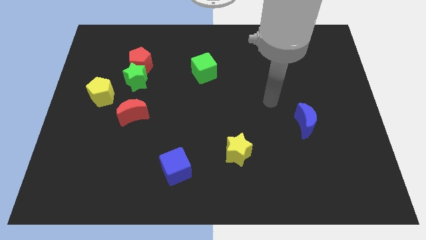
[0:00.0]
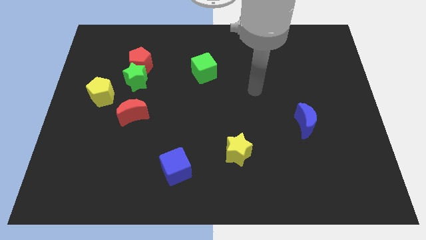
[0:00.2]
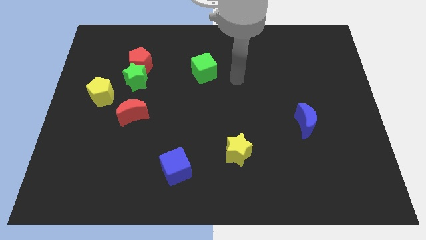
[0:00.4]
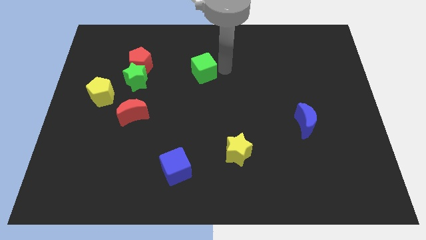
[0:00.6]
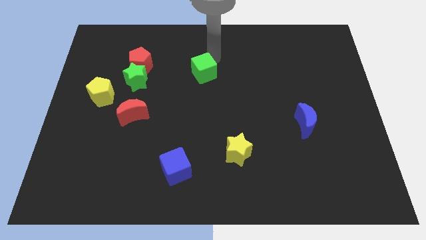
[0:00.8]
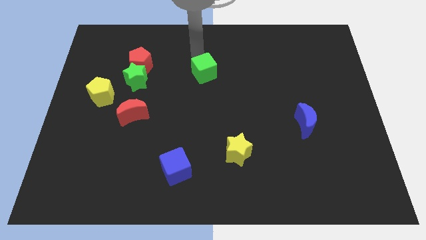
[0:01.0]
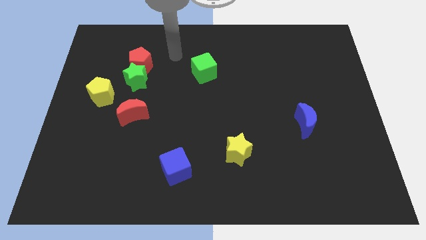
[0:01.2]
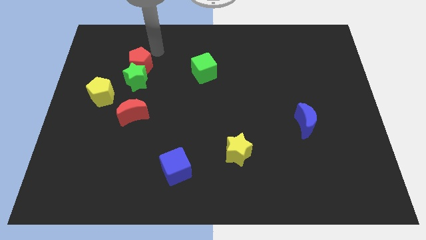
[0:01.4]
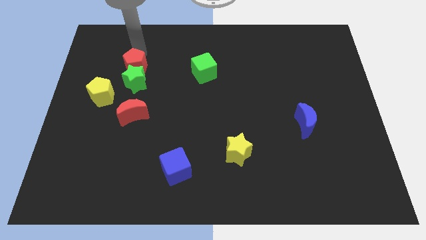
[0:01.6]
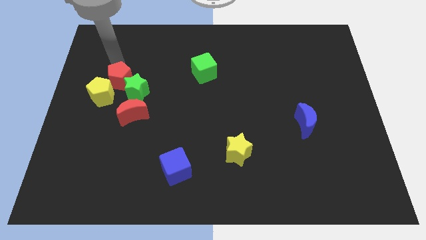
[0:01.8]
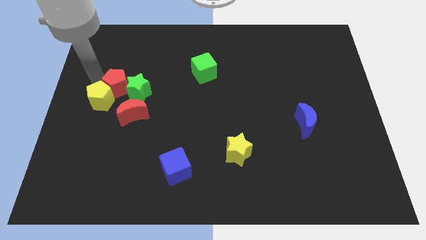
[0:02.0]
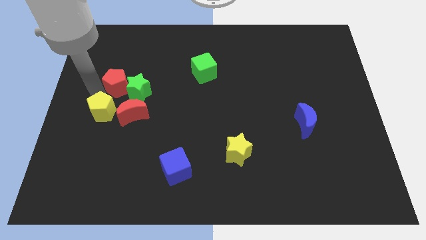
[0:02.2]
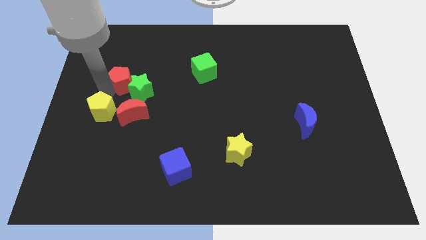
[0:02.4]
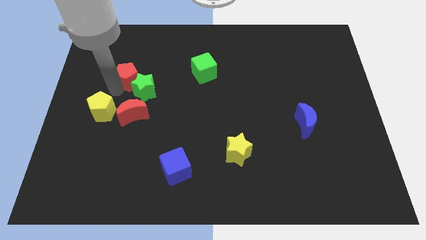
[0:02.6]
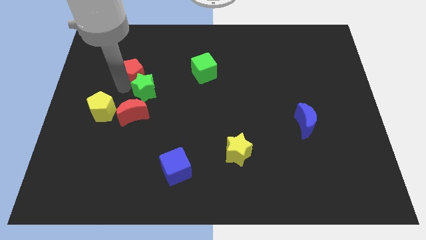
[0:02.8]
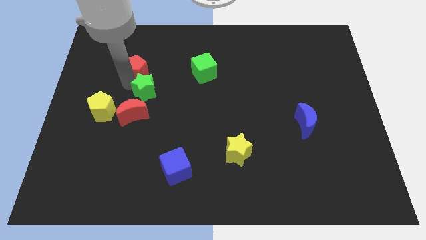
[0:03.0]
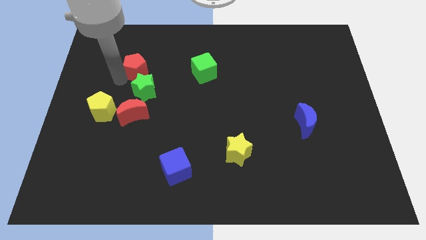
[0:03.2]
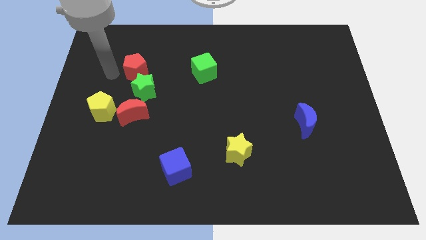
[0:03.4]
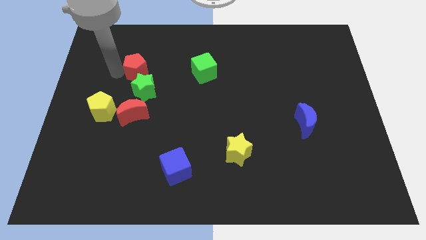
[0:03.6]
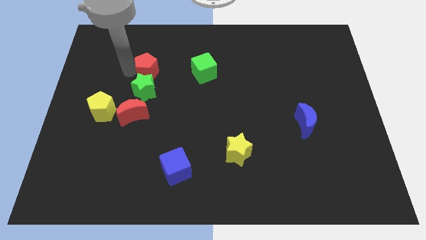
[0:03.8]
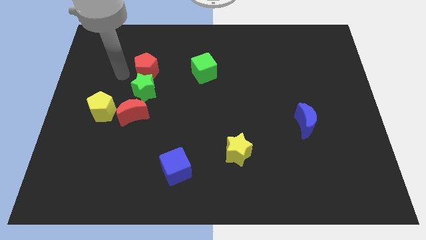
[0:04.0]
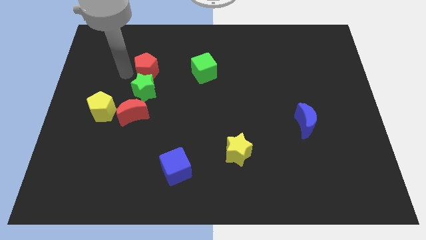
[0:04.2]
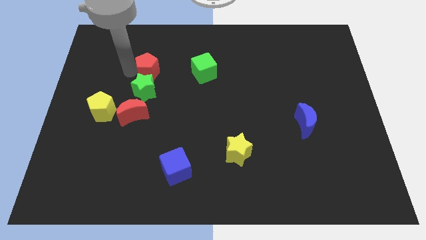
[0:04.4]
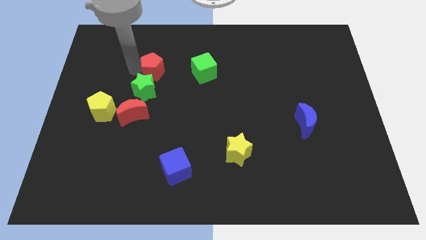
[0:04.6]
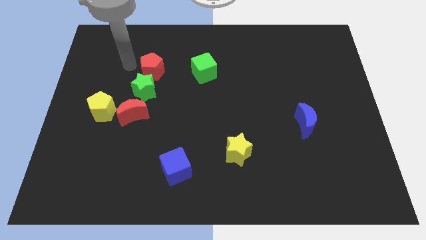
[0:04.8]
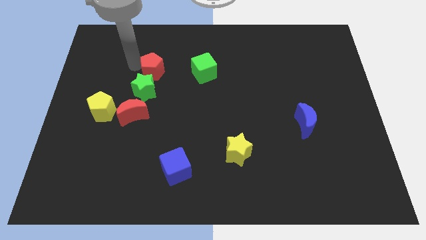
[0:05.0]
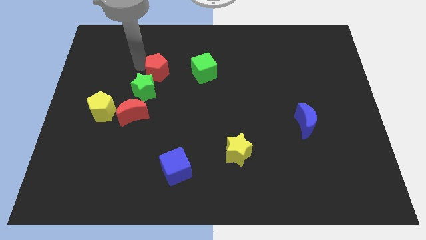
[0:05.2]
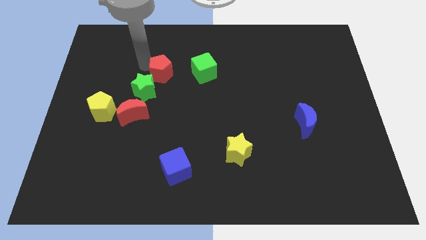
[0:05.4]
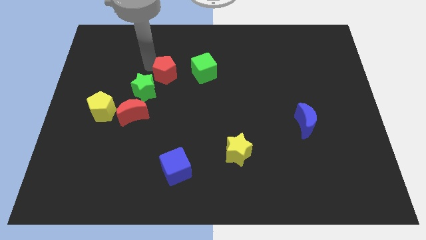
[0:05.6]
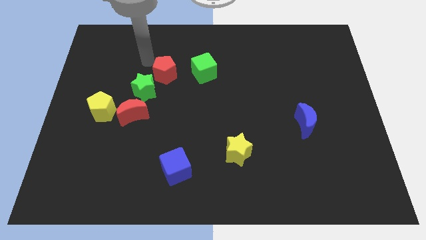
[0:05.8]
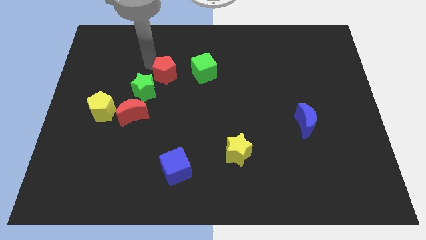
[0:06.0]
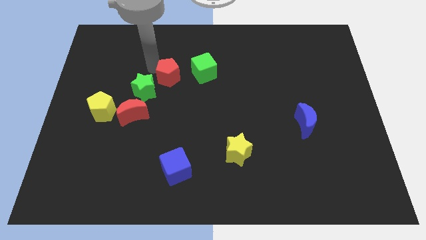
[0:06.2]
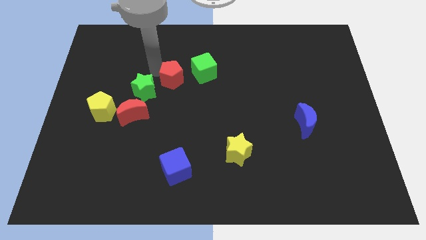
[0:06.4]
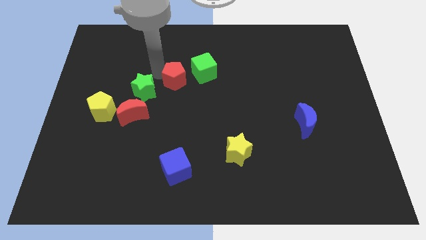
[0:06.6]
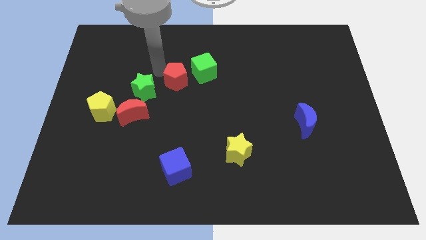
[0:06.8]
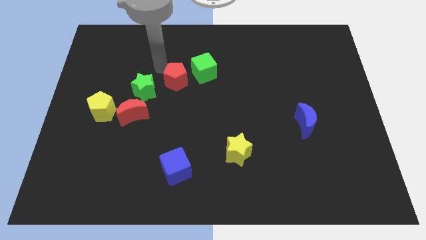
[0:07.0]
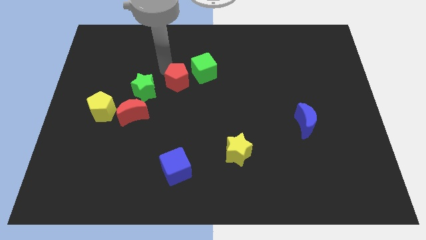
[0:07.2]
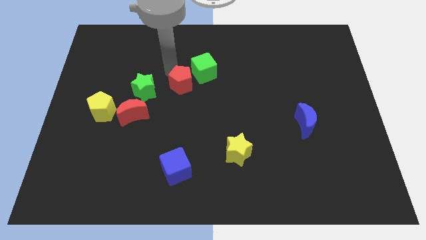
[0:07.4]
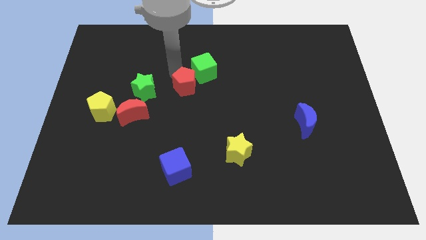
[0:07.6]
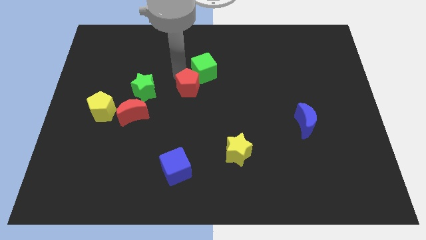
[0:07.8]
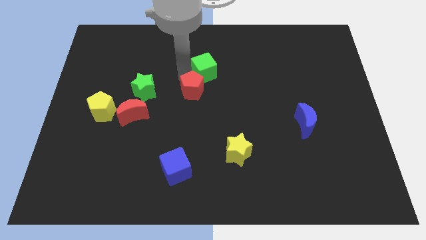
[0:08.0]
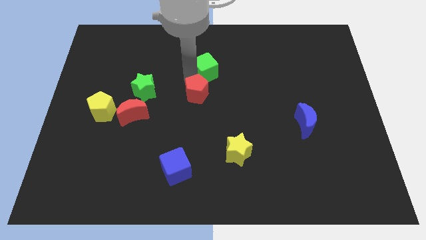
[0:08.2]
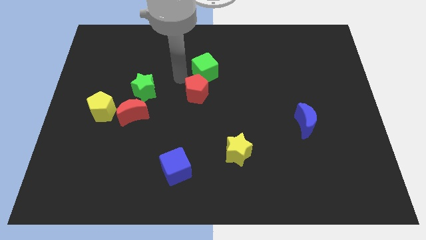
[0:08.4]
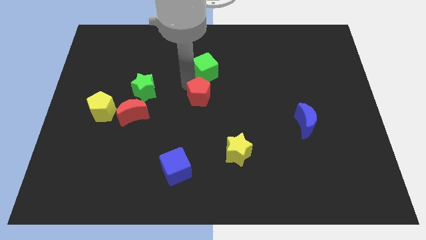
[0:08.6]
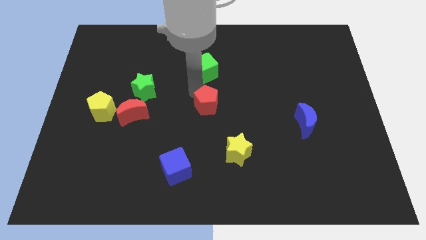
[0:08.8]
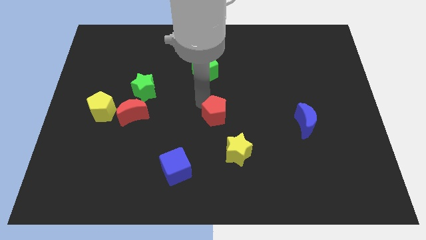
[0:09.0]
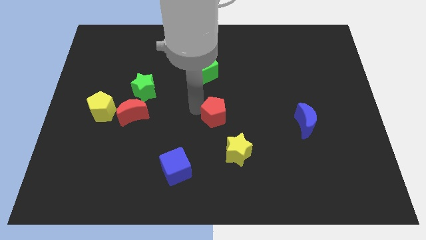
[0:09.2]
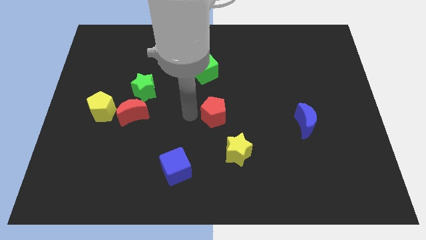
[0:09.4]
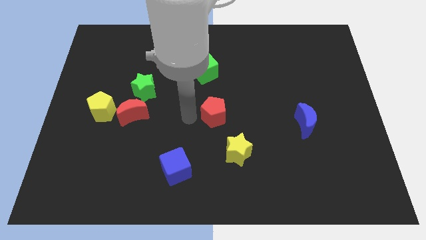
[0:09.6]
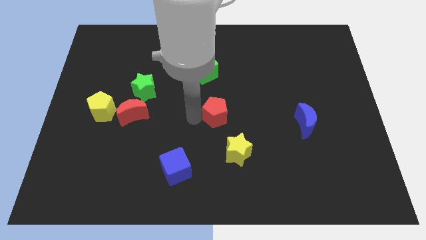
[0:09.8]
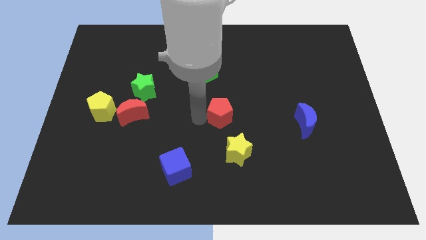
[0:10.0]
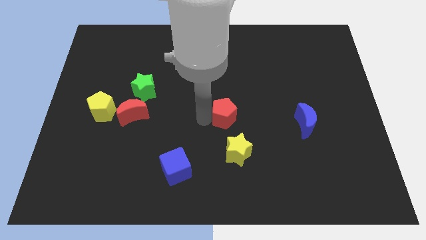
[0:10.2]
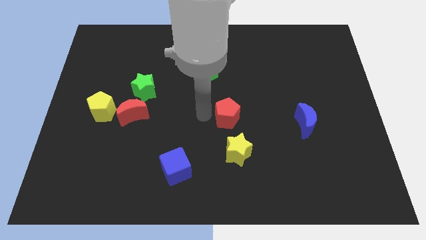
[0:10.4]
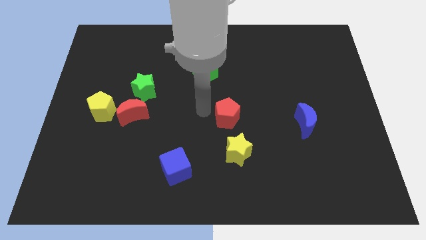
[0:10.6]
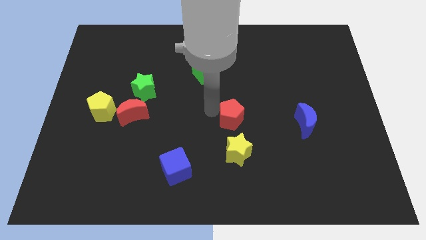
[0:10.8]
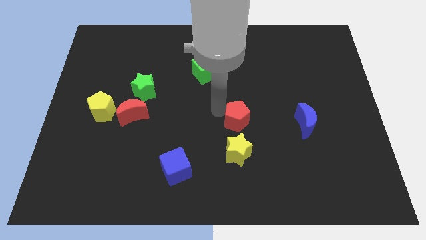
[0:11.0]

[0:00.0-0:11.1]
move the red pentagon just left of the blue moon

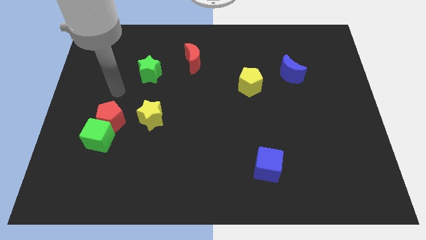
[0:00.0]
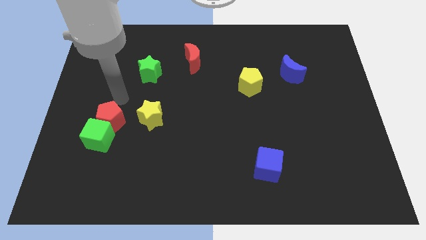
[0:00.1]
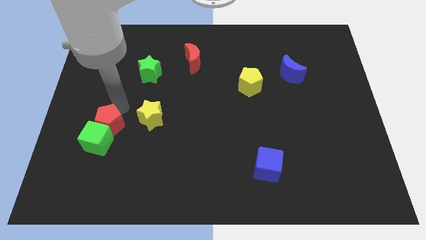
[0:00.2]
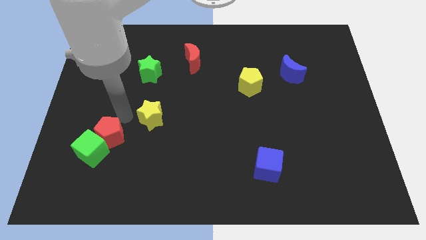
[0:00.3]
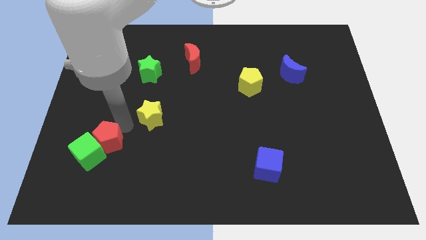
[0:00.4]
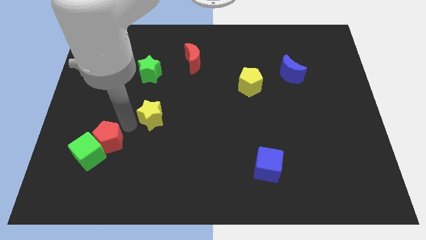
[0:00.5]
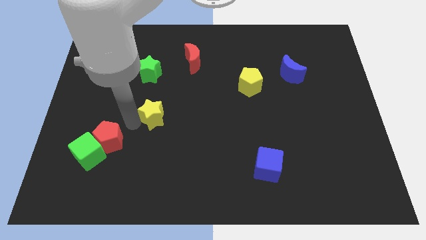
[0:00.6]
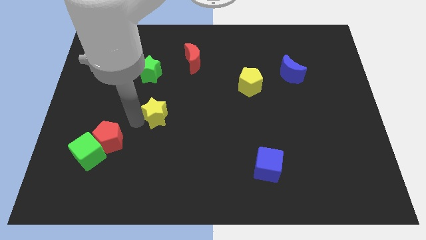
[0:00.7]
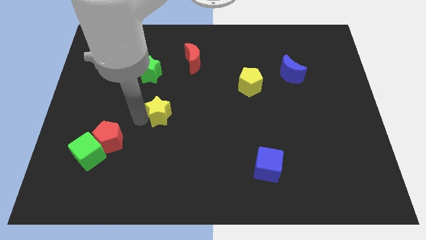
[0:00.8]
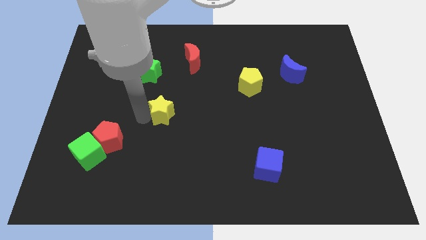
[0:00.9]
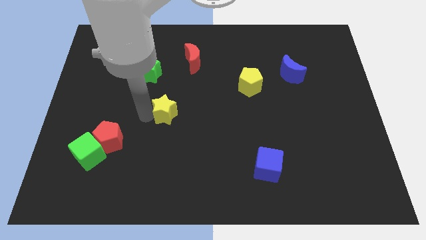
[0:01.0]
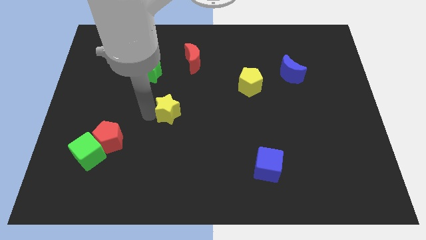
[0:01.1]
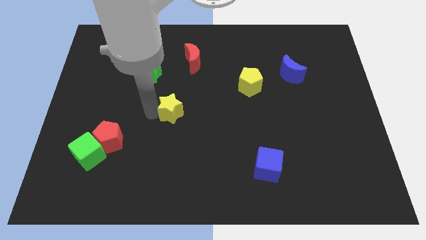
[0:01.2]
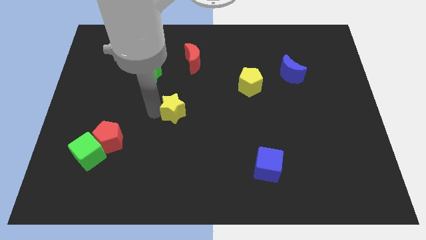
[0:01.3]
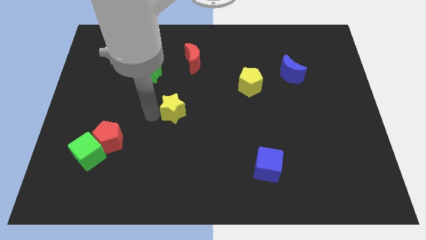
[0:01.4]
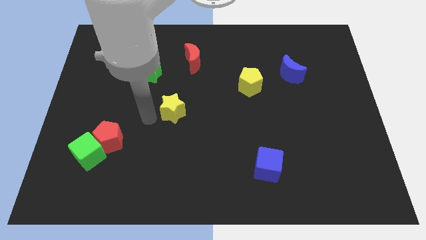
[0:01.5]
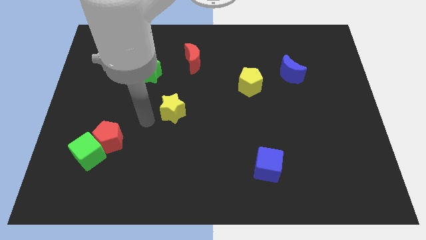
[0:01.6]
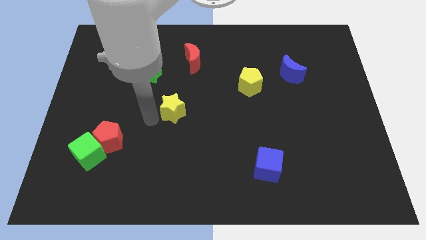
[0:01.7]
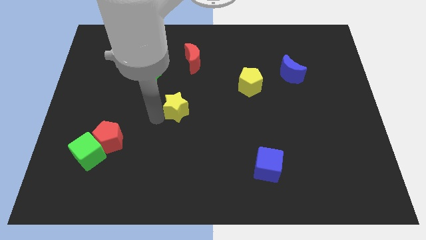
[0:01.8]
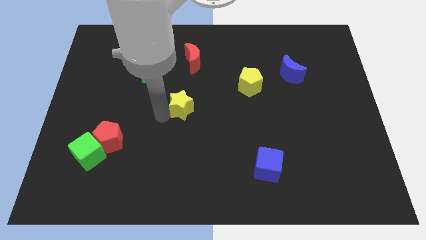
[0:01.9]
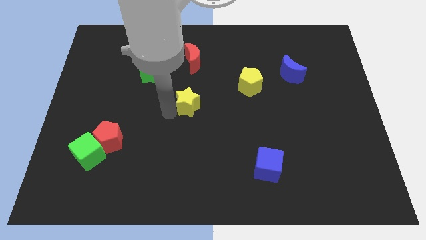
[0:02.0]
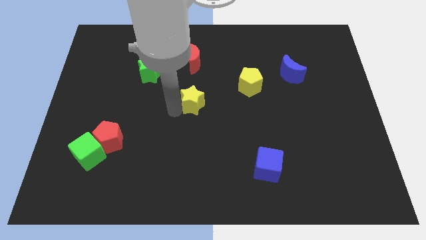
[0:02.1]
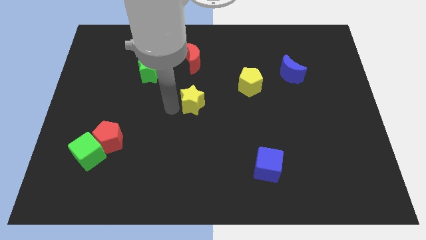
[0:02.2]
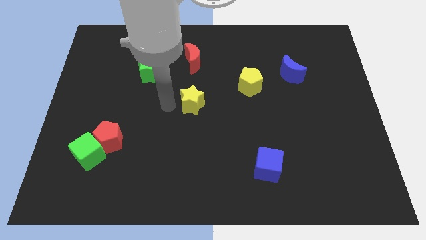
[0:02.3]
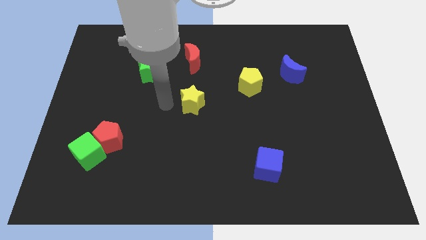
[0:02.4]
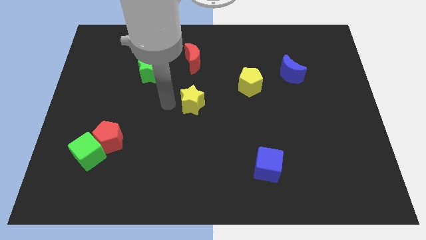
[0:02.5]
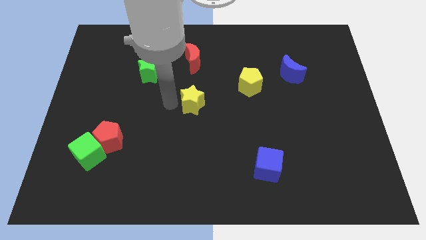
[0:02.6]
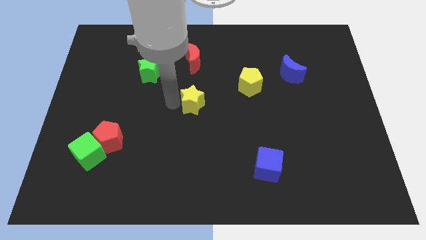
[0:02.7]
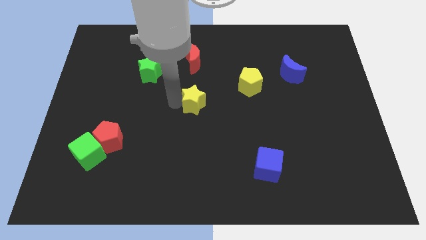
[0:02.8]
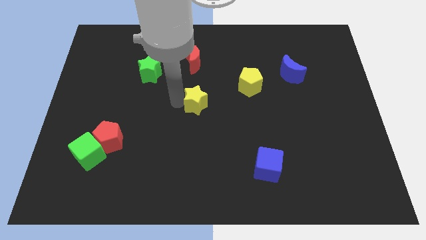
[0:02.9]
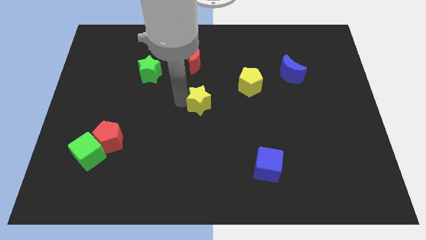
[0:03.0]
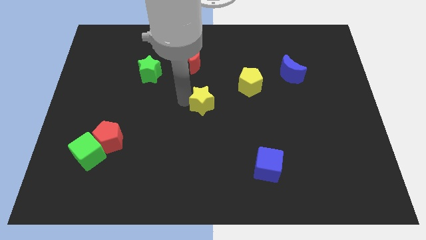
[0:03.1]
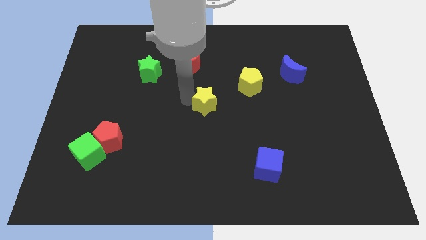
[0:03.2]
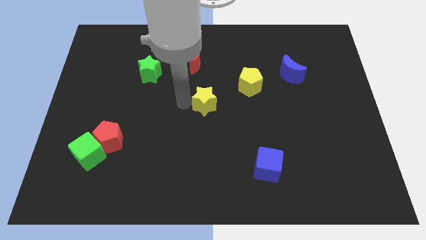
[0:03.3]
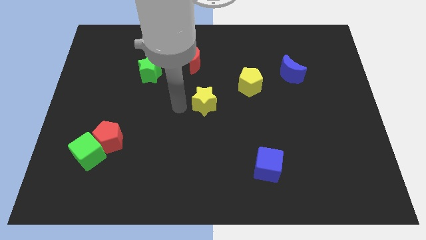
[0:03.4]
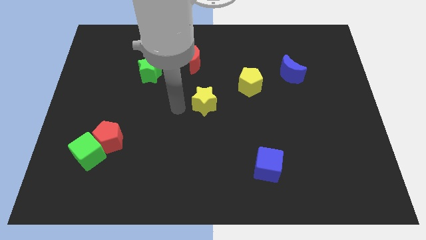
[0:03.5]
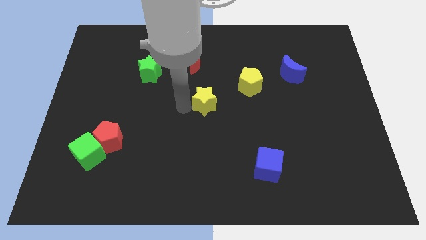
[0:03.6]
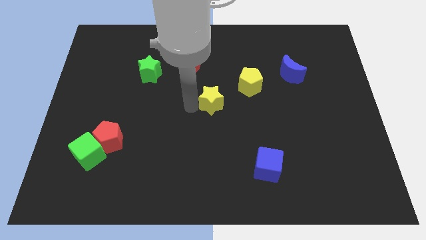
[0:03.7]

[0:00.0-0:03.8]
move the yellow star to the bottom left of the yellow pentagon
